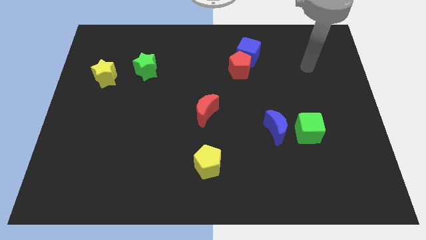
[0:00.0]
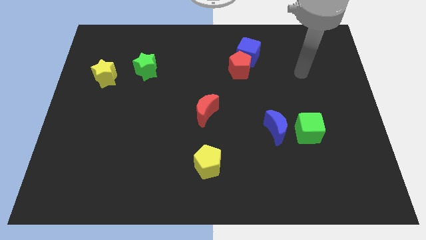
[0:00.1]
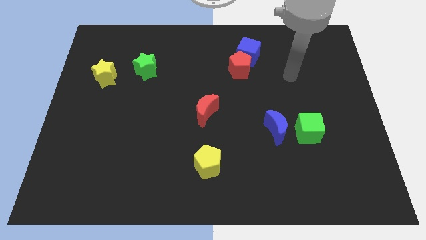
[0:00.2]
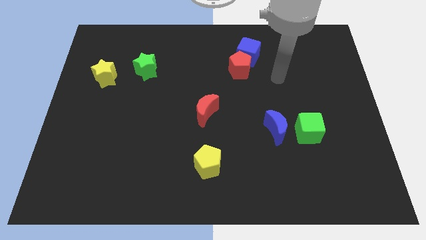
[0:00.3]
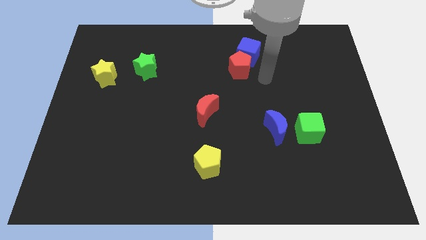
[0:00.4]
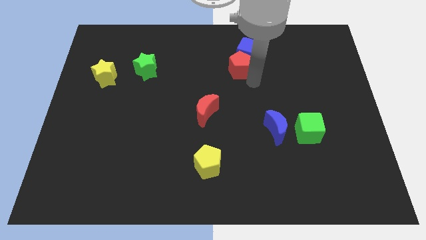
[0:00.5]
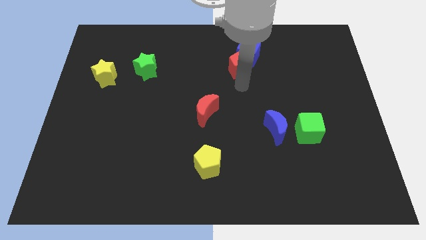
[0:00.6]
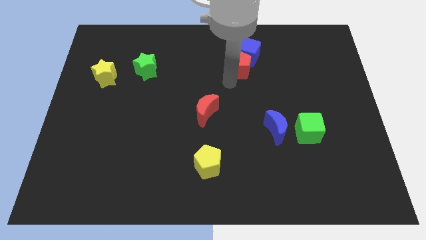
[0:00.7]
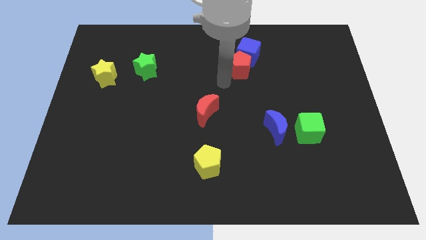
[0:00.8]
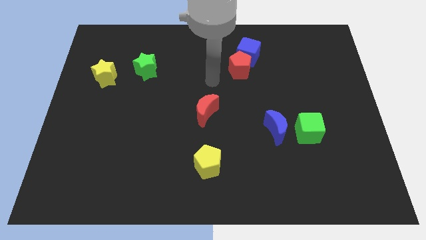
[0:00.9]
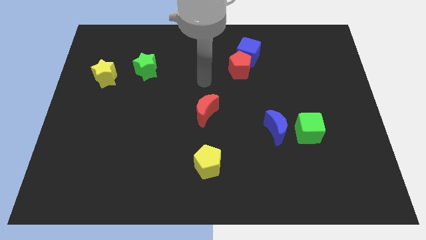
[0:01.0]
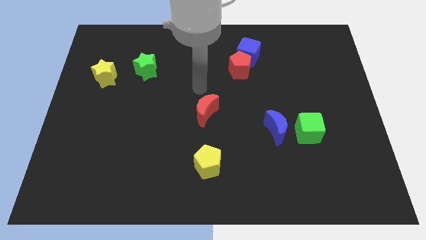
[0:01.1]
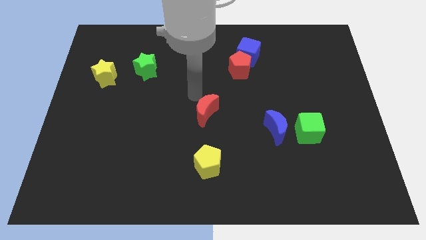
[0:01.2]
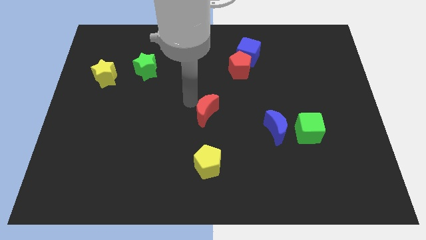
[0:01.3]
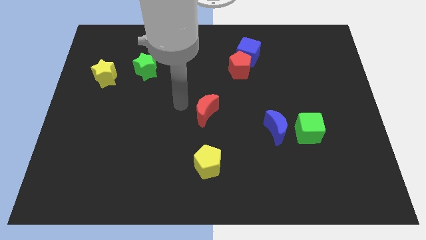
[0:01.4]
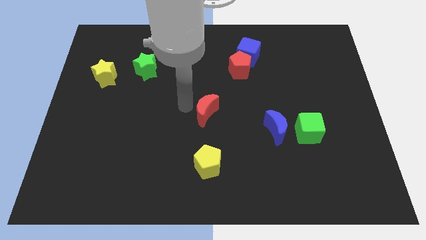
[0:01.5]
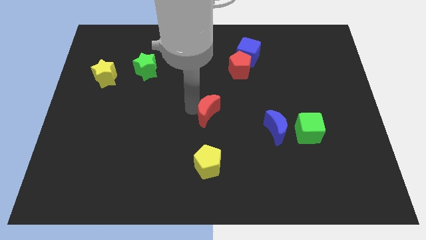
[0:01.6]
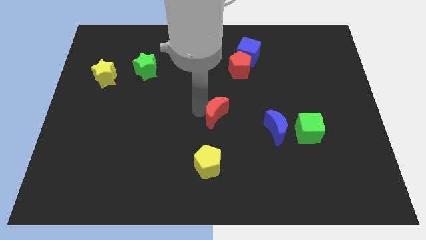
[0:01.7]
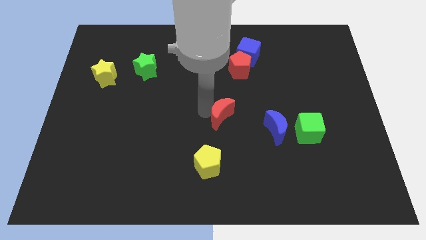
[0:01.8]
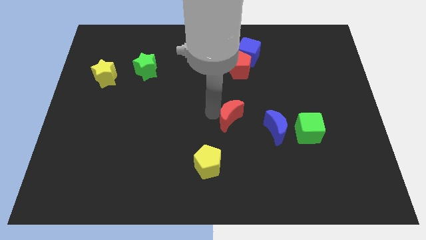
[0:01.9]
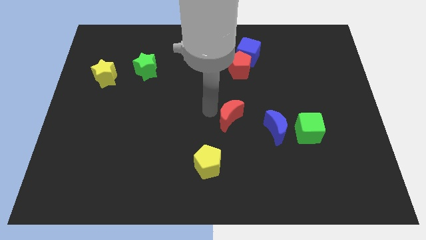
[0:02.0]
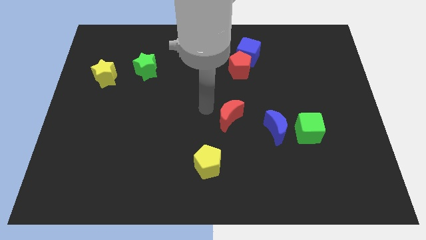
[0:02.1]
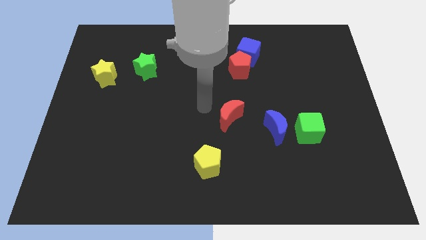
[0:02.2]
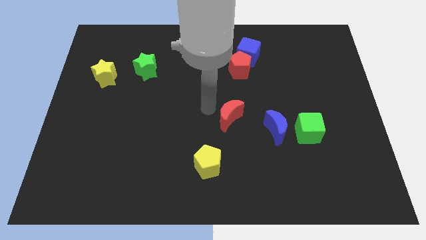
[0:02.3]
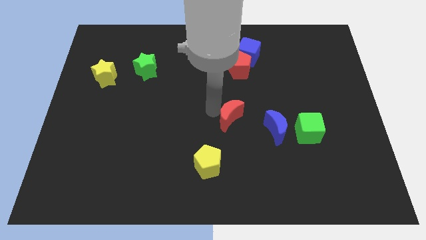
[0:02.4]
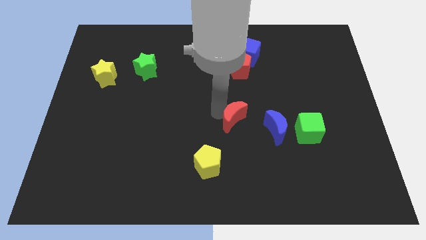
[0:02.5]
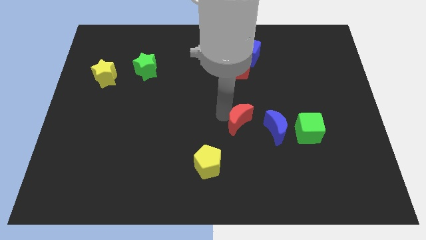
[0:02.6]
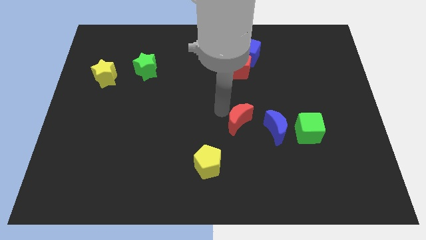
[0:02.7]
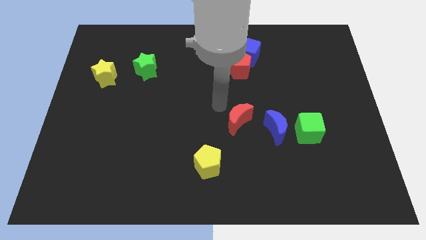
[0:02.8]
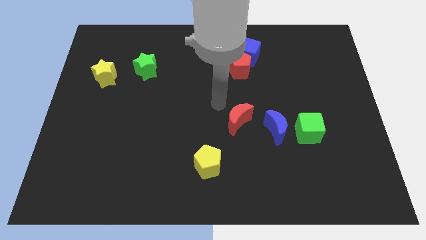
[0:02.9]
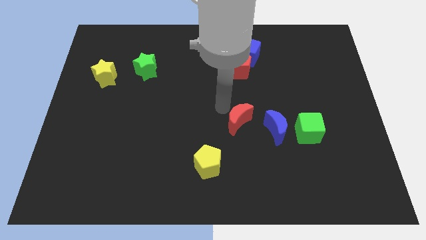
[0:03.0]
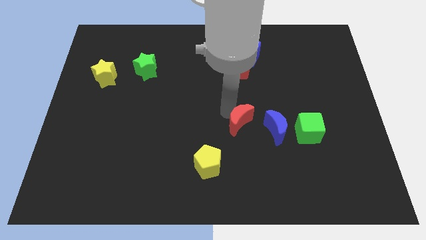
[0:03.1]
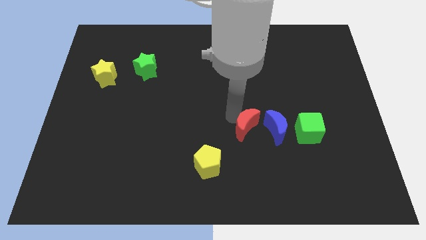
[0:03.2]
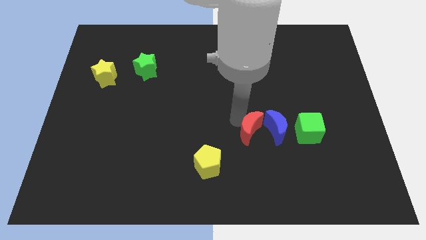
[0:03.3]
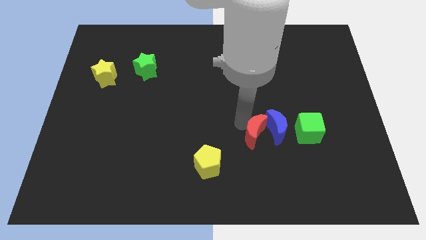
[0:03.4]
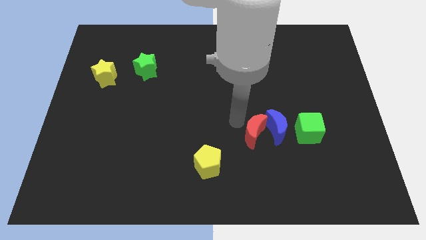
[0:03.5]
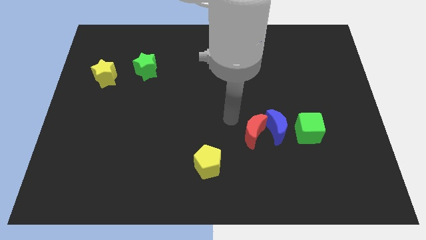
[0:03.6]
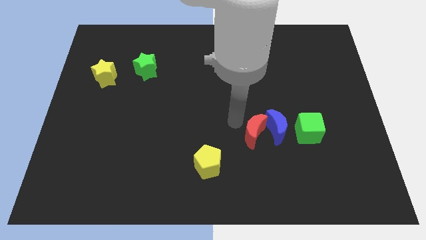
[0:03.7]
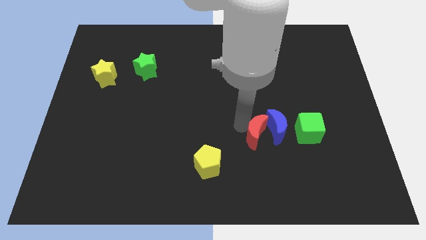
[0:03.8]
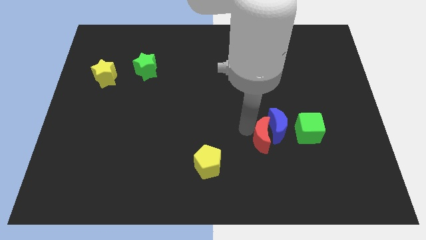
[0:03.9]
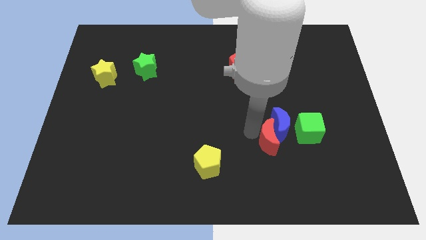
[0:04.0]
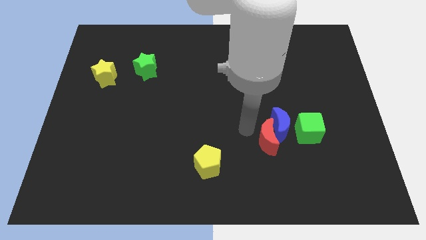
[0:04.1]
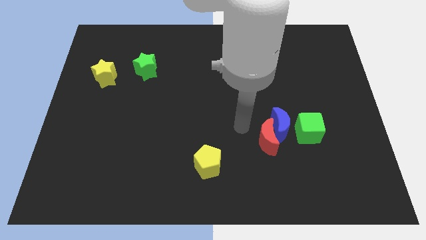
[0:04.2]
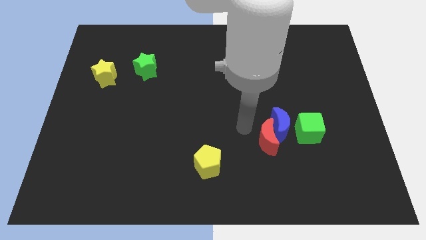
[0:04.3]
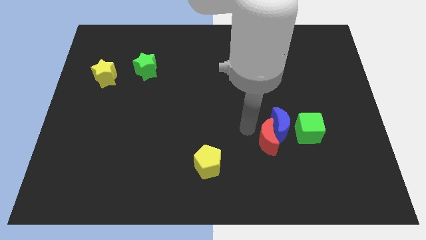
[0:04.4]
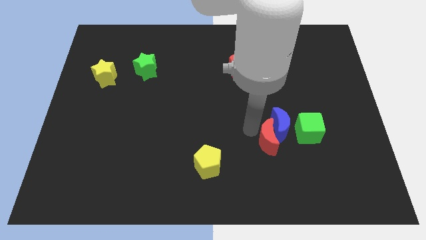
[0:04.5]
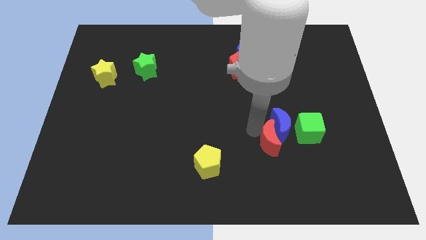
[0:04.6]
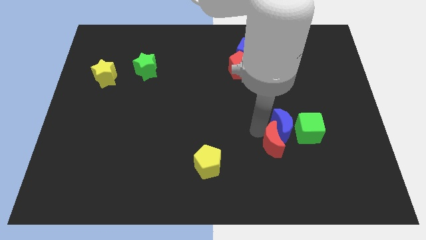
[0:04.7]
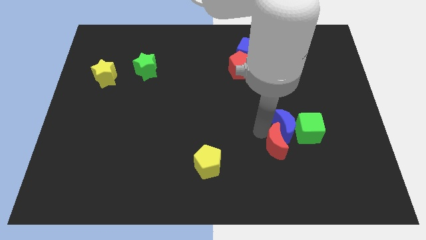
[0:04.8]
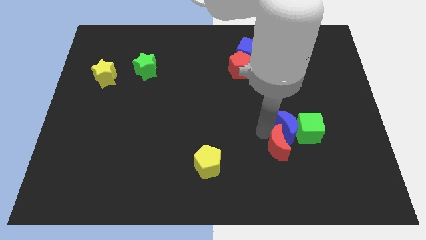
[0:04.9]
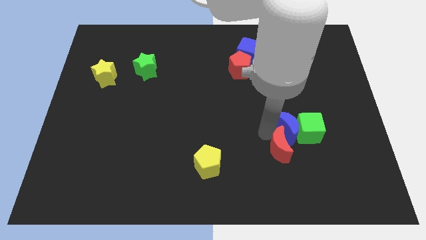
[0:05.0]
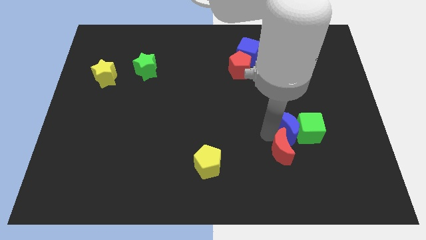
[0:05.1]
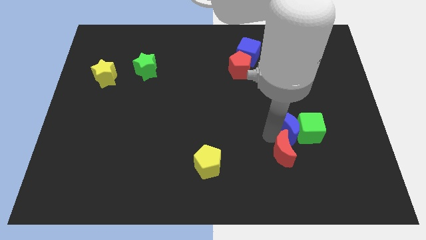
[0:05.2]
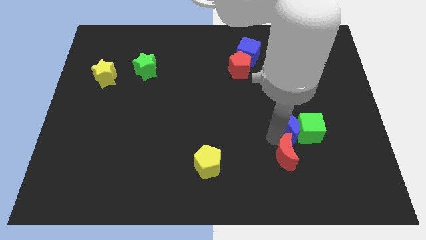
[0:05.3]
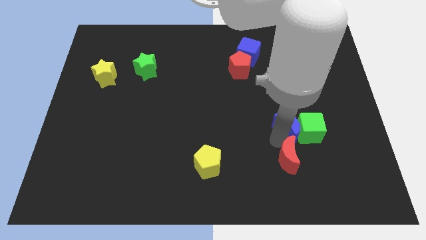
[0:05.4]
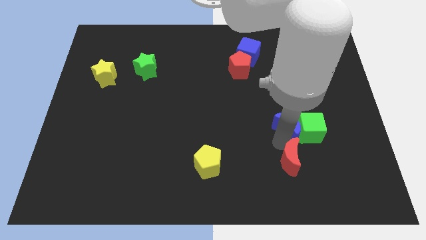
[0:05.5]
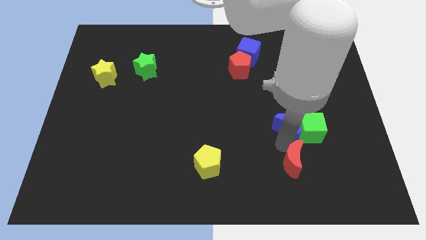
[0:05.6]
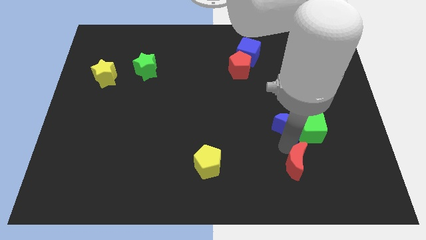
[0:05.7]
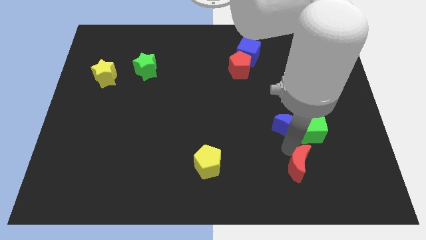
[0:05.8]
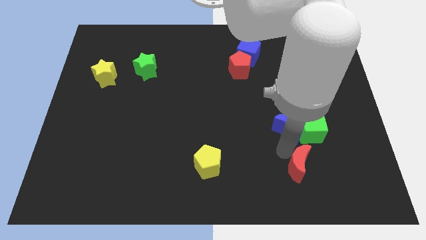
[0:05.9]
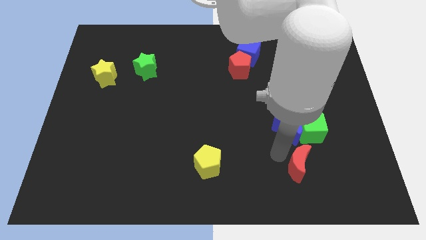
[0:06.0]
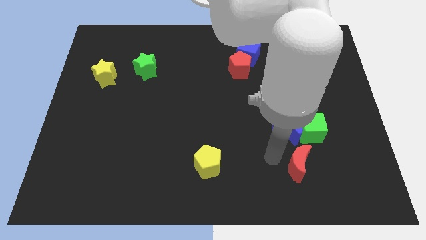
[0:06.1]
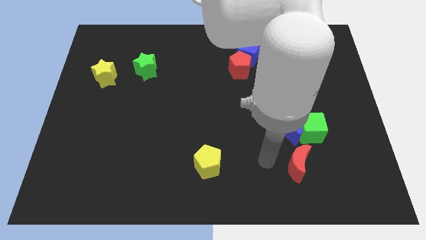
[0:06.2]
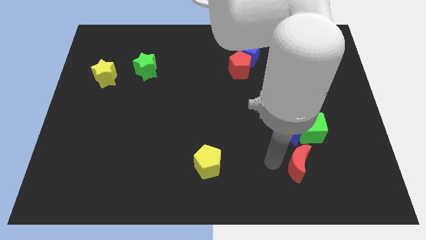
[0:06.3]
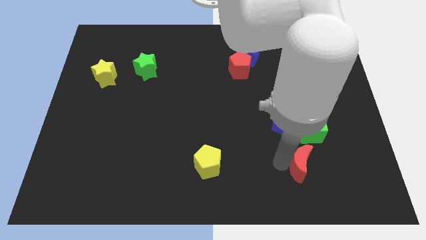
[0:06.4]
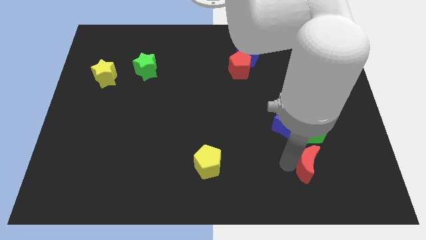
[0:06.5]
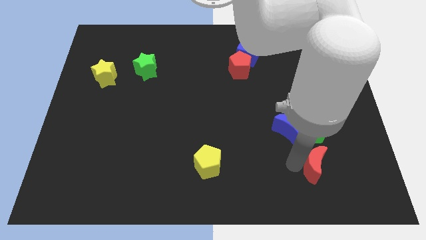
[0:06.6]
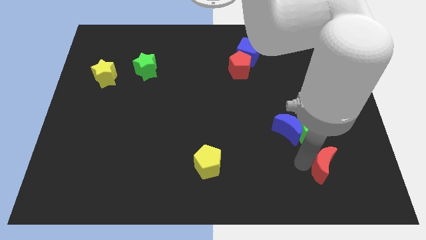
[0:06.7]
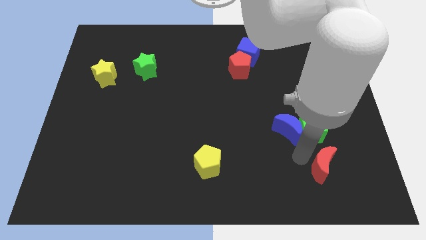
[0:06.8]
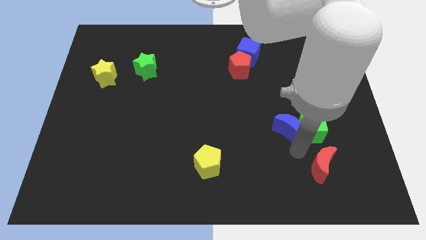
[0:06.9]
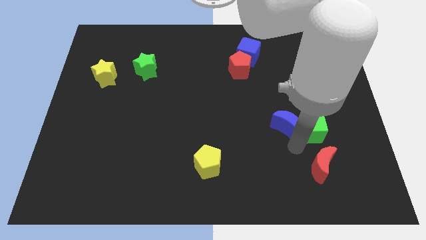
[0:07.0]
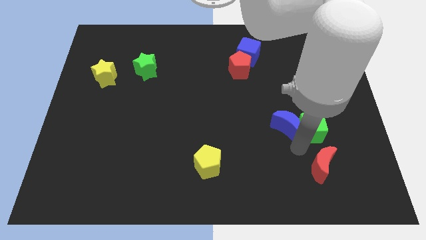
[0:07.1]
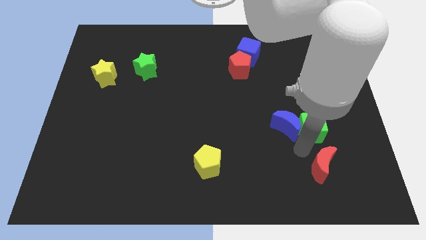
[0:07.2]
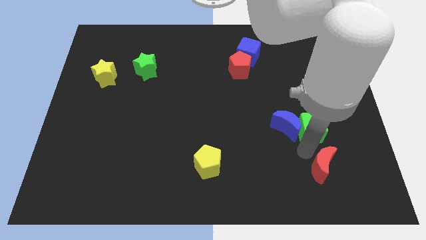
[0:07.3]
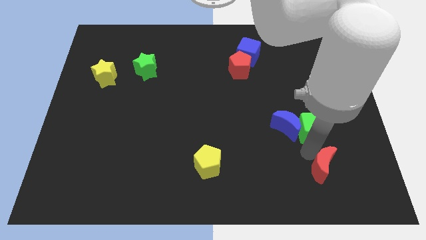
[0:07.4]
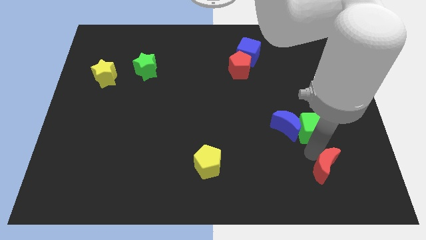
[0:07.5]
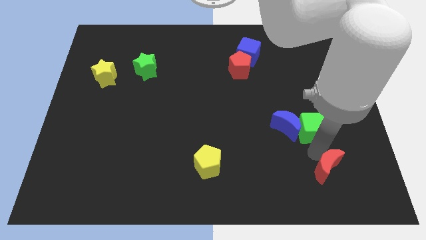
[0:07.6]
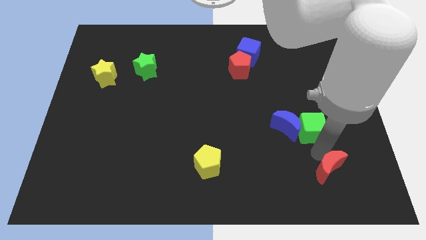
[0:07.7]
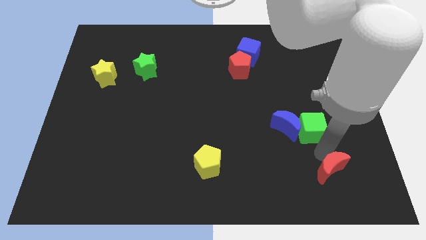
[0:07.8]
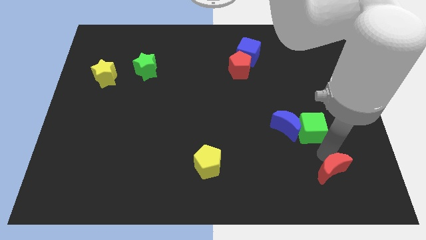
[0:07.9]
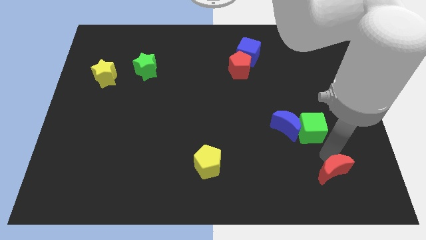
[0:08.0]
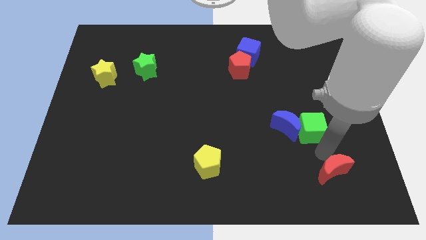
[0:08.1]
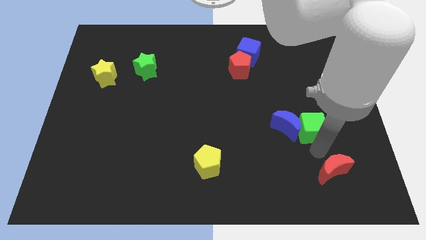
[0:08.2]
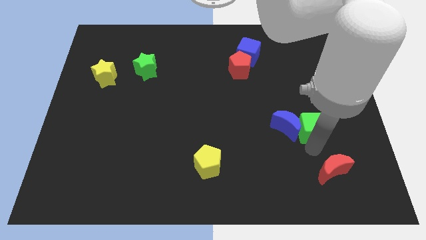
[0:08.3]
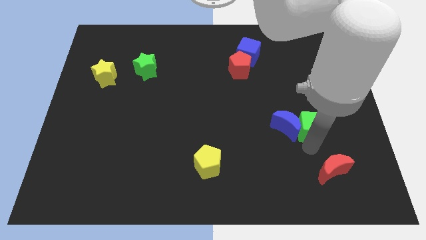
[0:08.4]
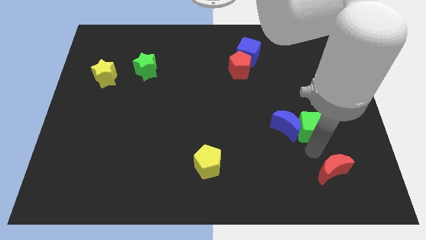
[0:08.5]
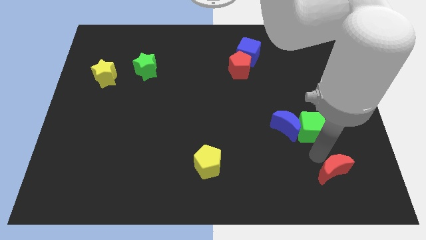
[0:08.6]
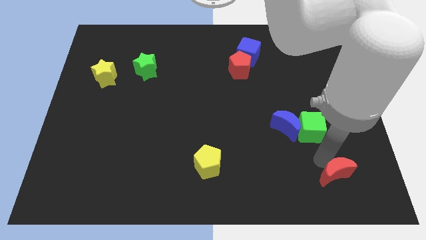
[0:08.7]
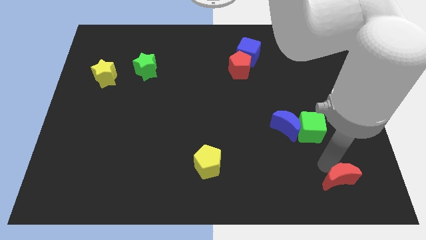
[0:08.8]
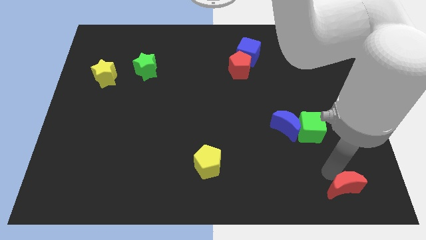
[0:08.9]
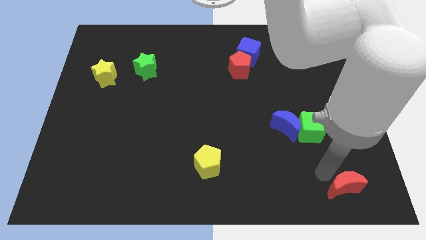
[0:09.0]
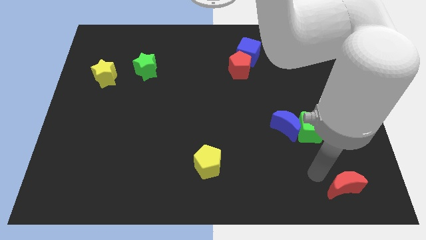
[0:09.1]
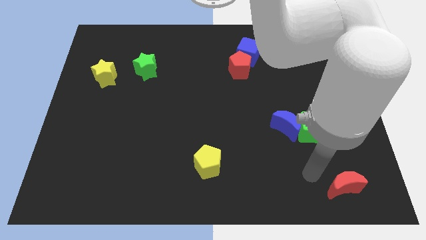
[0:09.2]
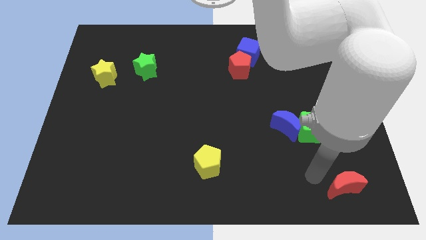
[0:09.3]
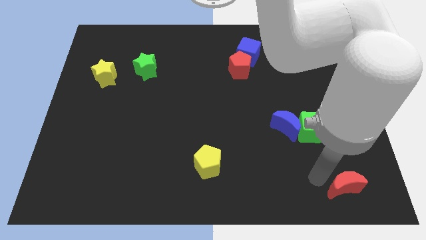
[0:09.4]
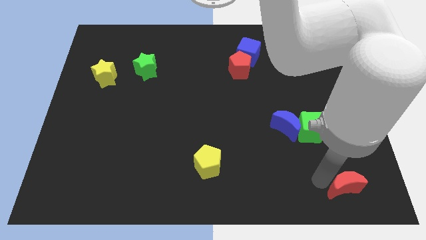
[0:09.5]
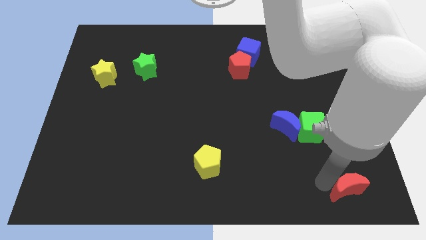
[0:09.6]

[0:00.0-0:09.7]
slide the red moon to the bottom right
